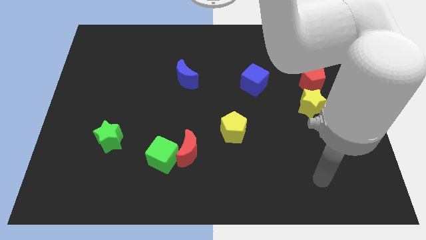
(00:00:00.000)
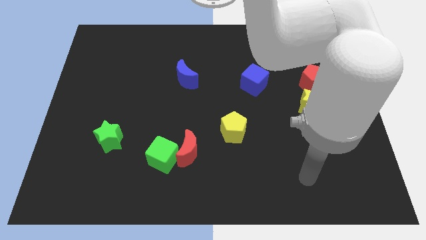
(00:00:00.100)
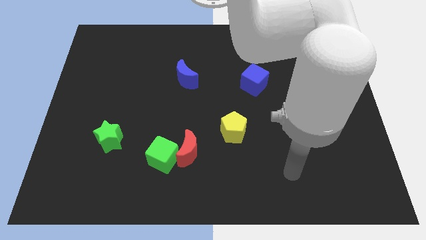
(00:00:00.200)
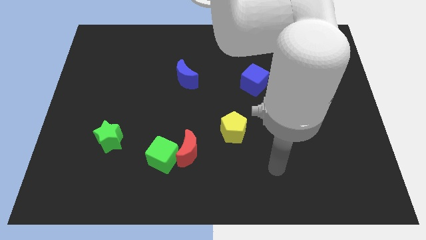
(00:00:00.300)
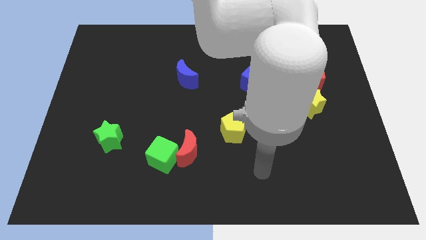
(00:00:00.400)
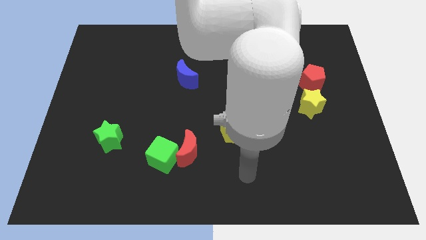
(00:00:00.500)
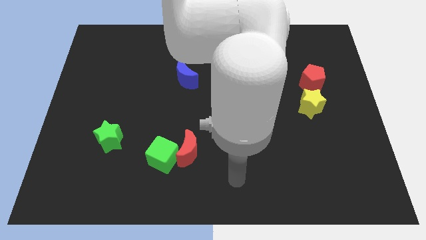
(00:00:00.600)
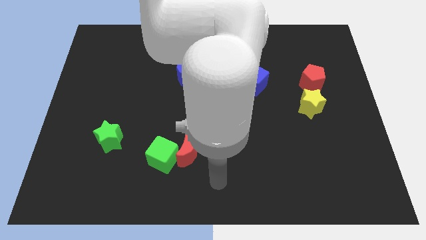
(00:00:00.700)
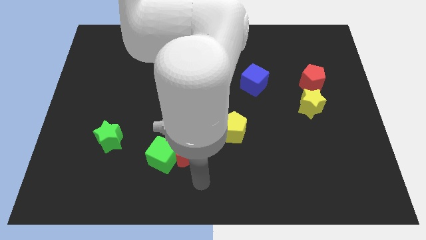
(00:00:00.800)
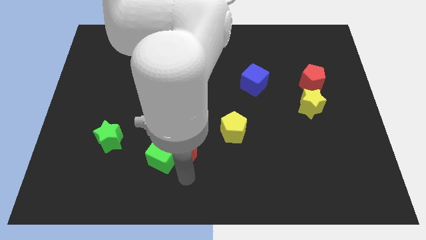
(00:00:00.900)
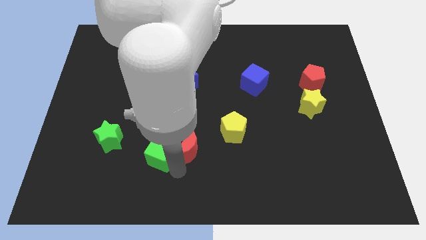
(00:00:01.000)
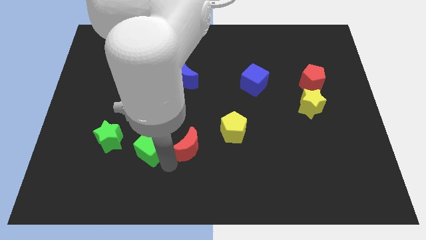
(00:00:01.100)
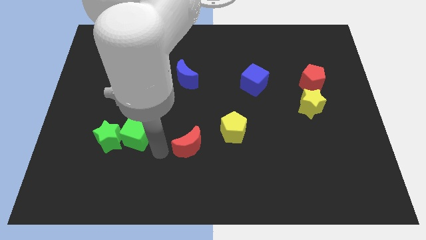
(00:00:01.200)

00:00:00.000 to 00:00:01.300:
separate the red moon from the green cube

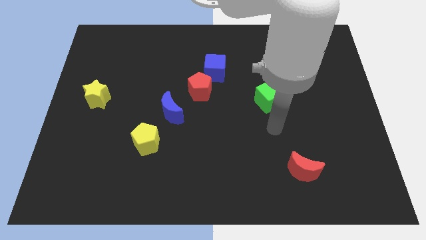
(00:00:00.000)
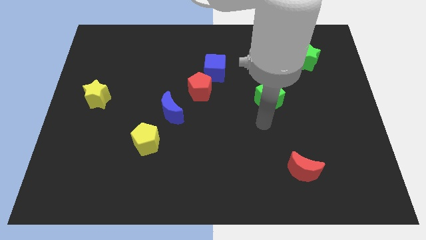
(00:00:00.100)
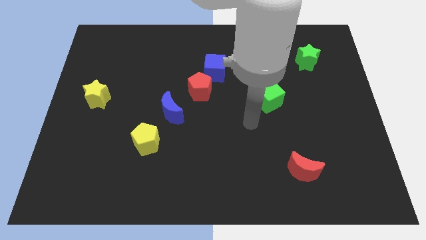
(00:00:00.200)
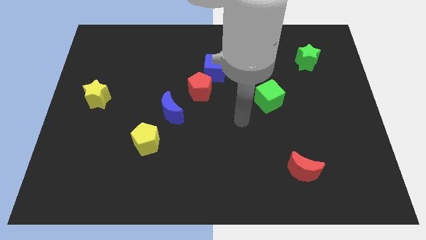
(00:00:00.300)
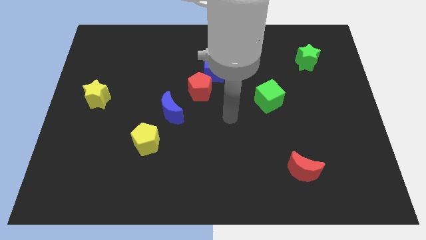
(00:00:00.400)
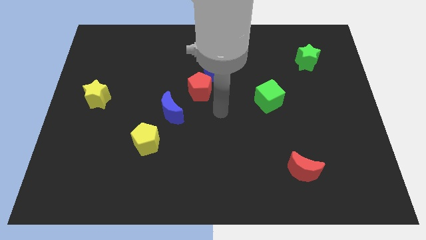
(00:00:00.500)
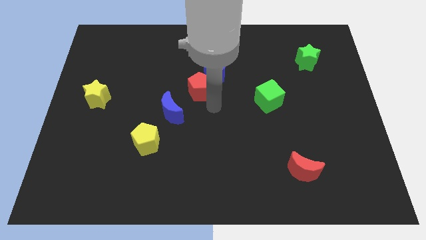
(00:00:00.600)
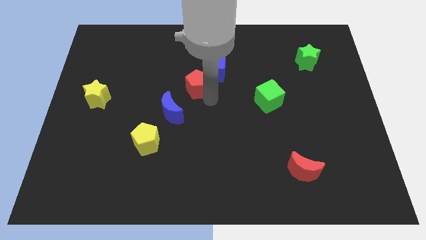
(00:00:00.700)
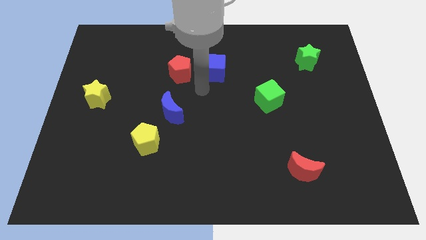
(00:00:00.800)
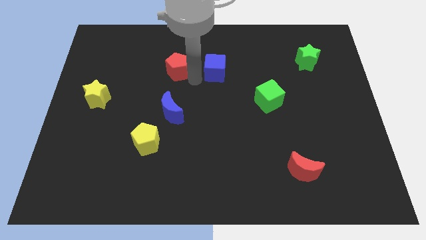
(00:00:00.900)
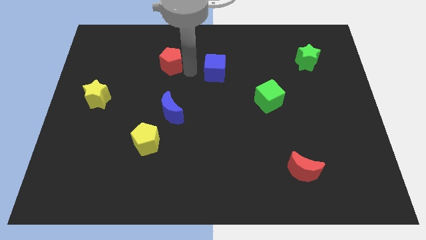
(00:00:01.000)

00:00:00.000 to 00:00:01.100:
move the blue cube away from the red pentagon

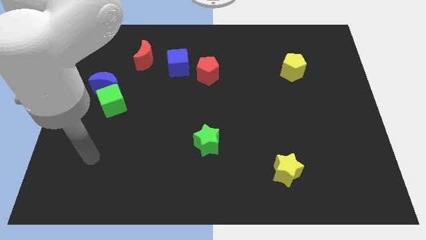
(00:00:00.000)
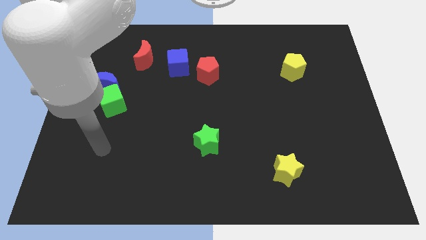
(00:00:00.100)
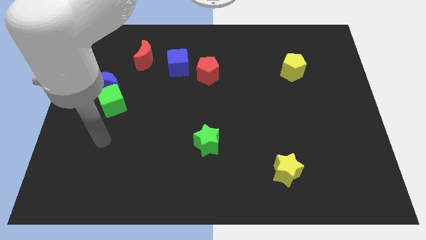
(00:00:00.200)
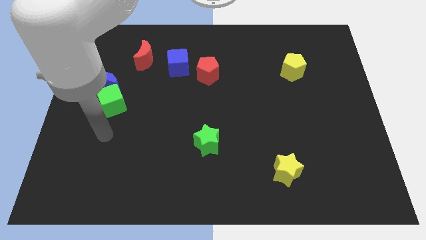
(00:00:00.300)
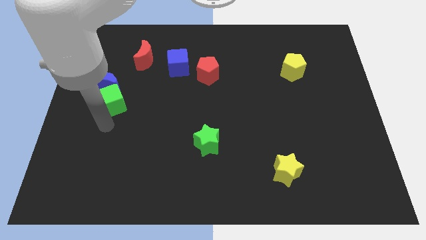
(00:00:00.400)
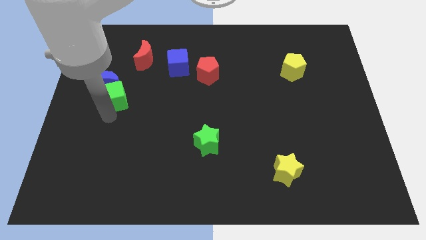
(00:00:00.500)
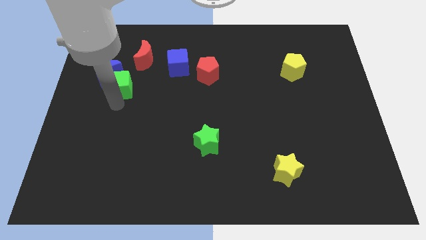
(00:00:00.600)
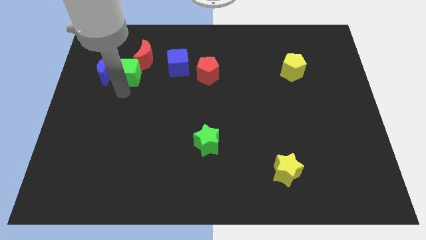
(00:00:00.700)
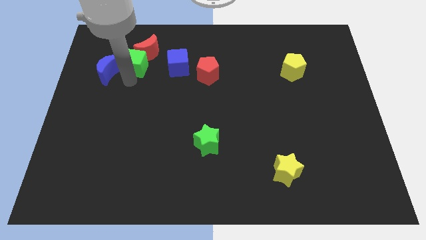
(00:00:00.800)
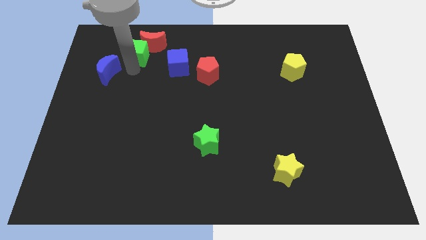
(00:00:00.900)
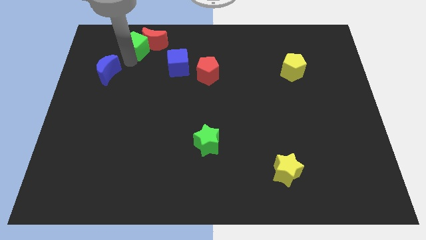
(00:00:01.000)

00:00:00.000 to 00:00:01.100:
pull the blue moon apart from the green cube

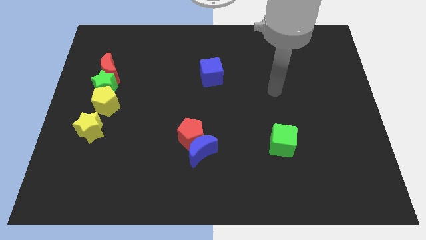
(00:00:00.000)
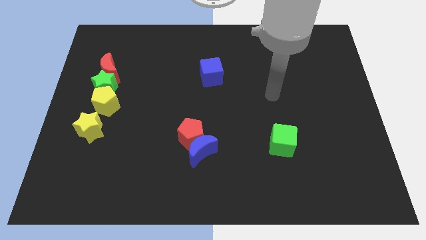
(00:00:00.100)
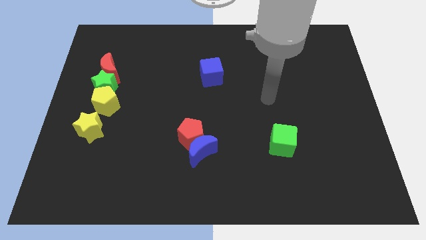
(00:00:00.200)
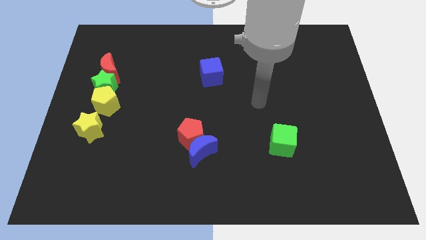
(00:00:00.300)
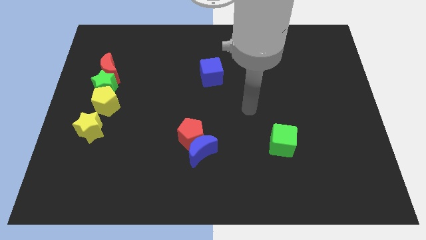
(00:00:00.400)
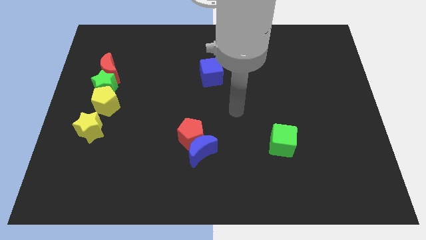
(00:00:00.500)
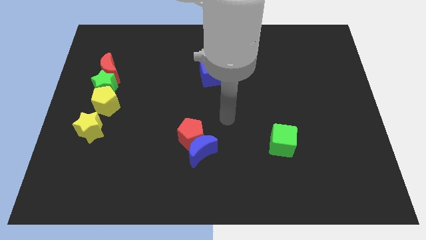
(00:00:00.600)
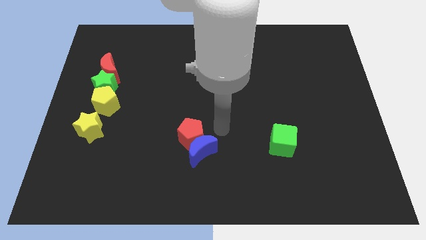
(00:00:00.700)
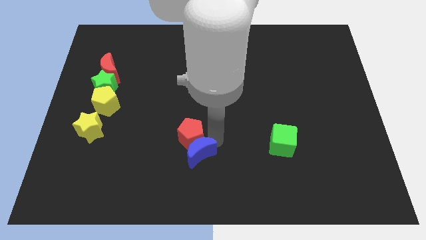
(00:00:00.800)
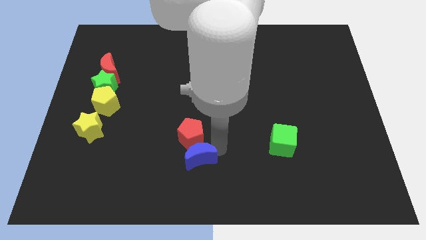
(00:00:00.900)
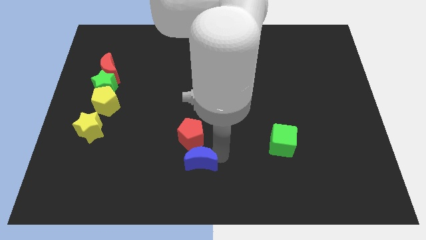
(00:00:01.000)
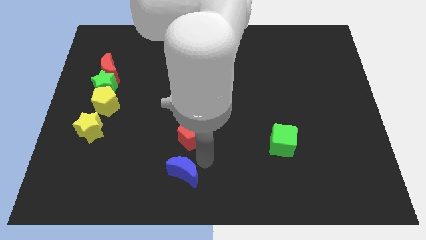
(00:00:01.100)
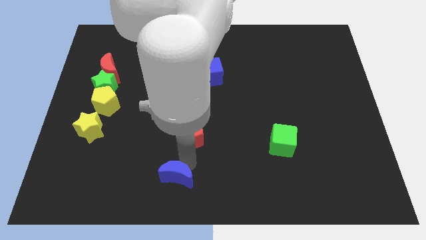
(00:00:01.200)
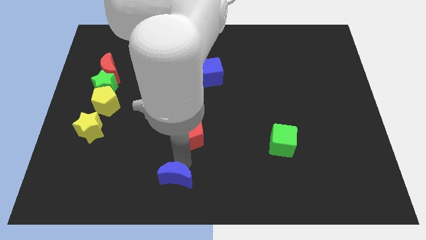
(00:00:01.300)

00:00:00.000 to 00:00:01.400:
separate the red pentagon from the blue moon

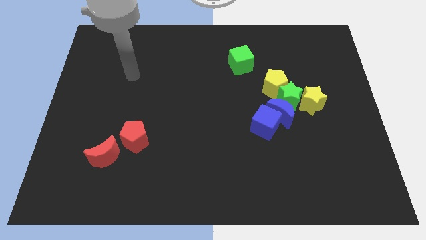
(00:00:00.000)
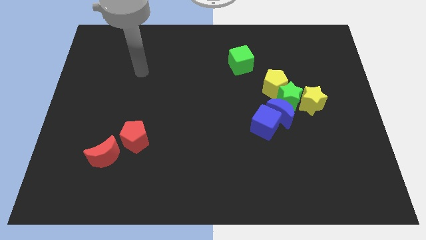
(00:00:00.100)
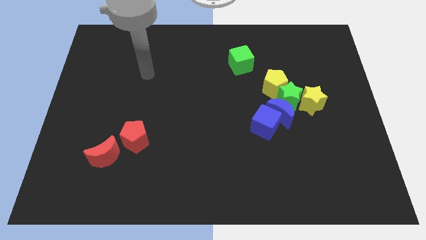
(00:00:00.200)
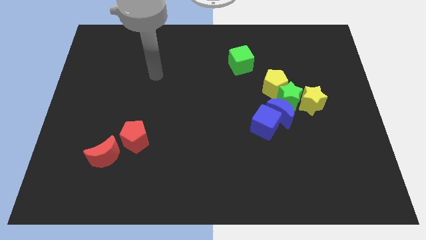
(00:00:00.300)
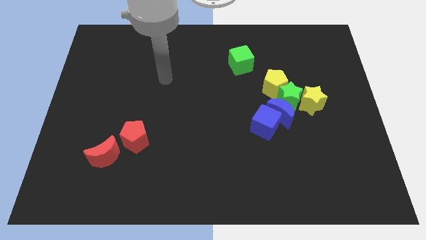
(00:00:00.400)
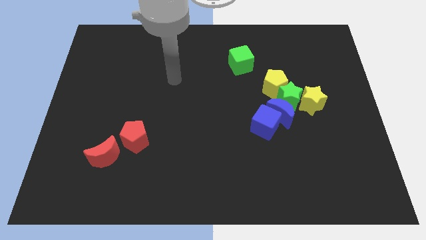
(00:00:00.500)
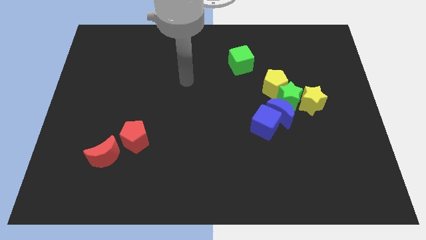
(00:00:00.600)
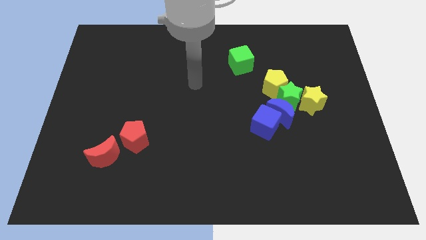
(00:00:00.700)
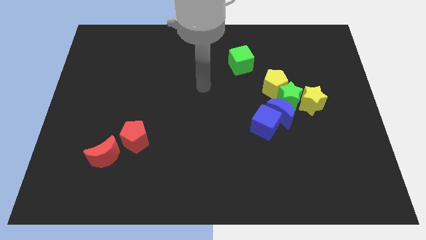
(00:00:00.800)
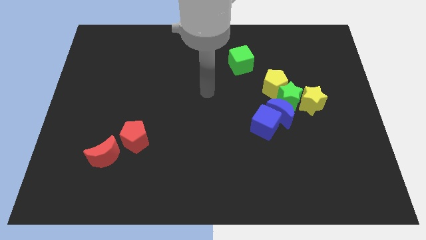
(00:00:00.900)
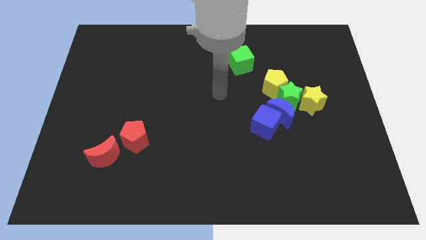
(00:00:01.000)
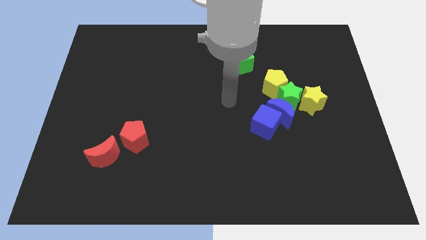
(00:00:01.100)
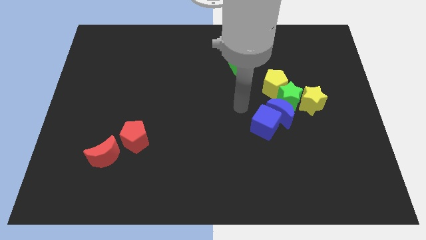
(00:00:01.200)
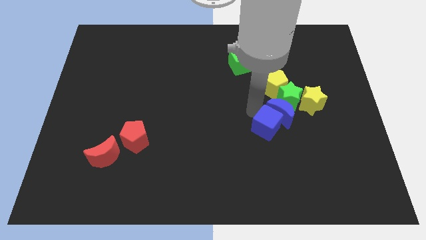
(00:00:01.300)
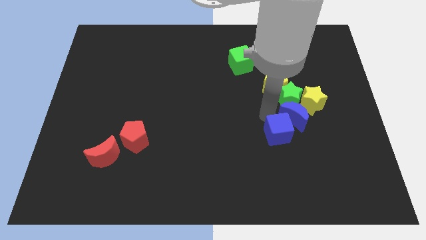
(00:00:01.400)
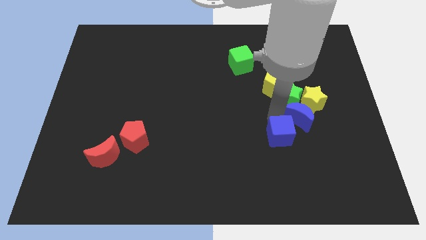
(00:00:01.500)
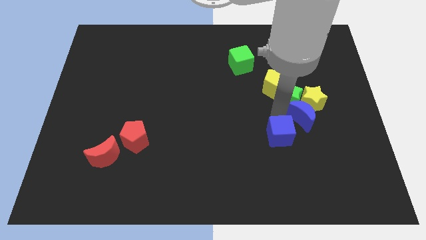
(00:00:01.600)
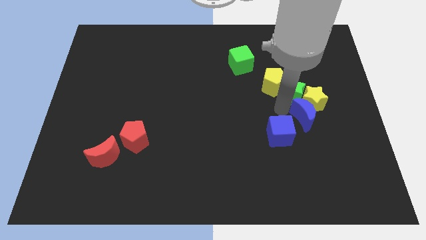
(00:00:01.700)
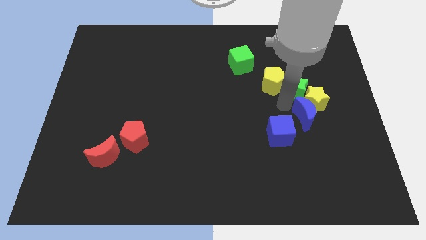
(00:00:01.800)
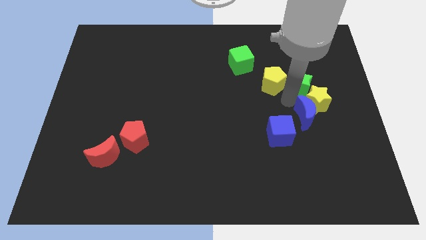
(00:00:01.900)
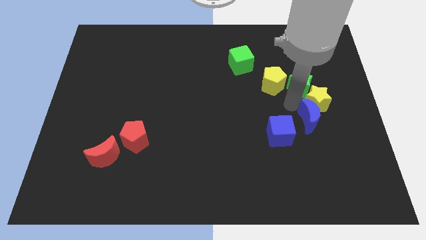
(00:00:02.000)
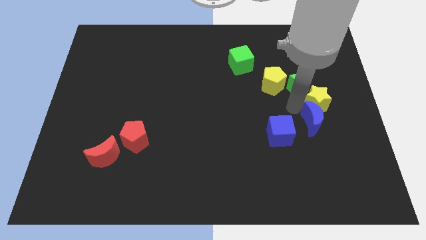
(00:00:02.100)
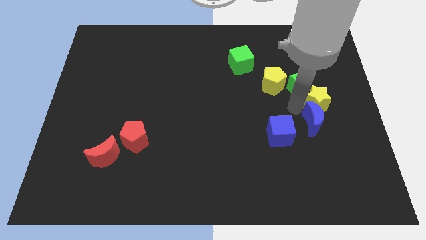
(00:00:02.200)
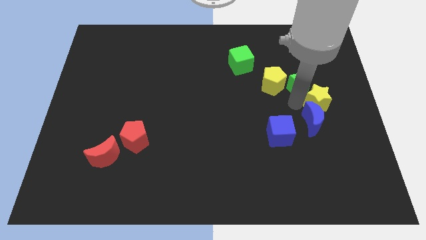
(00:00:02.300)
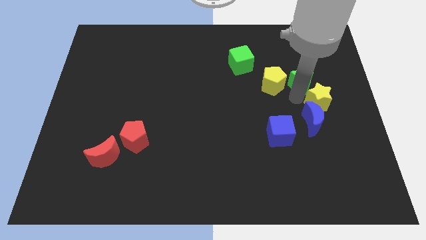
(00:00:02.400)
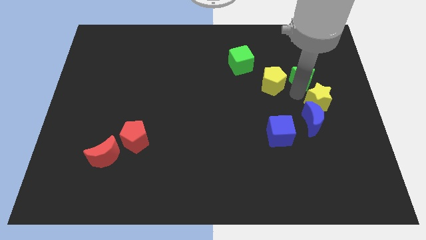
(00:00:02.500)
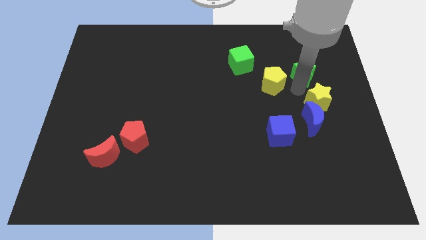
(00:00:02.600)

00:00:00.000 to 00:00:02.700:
pull the green star apart from the group

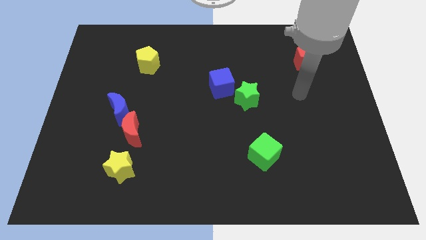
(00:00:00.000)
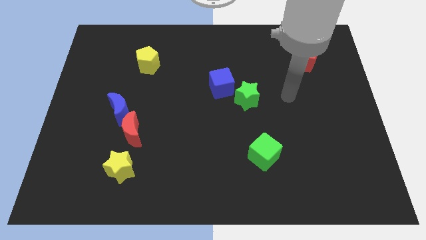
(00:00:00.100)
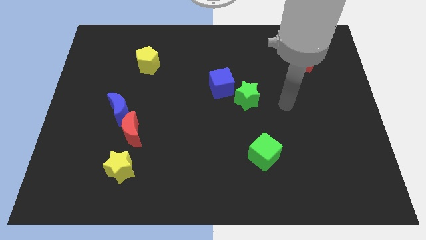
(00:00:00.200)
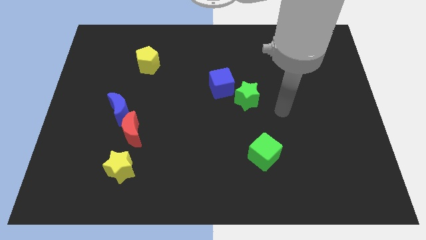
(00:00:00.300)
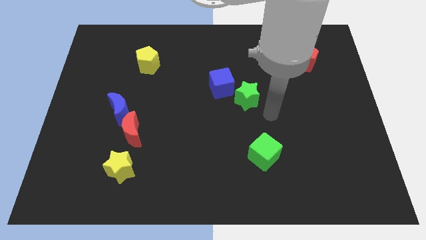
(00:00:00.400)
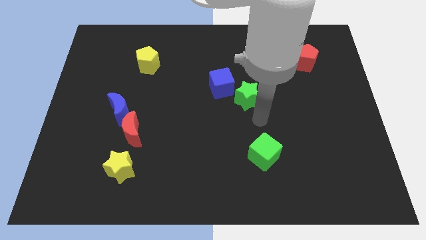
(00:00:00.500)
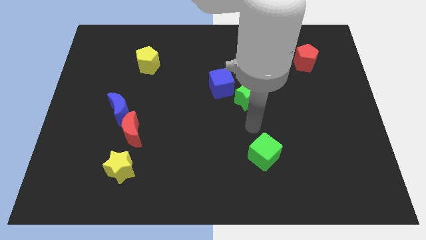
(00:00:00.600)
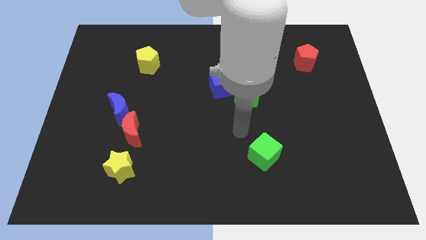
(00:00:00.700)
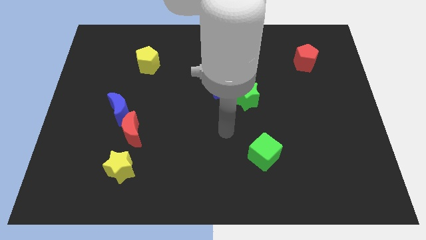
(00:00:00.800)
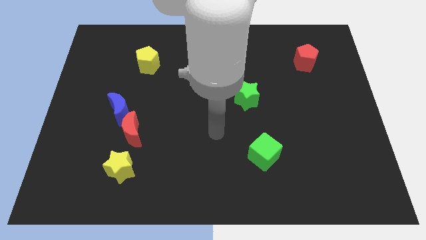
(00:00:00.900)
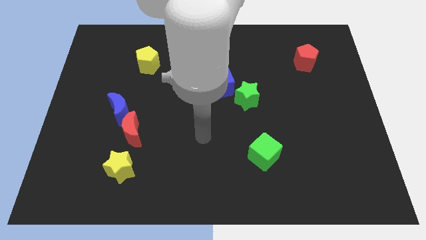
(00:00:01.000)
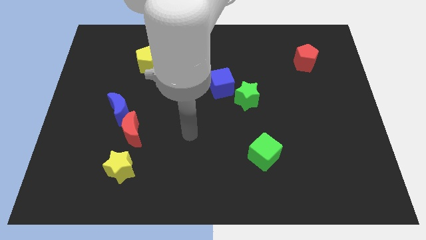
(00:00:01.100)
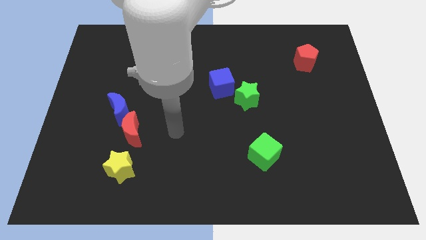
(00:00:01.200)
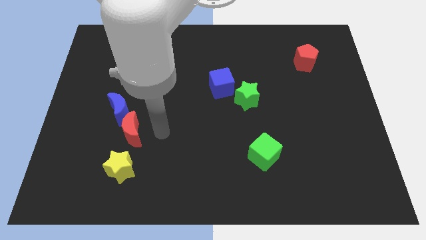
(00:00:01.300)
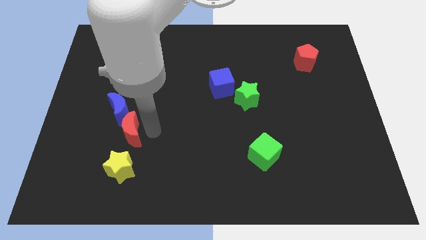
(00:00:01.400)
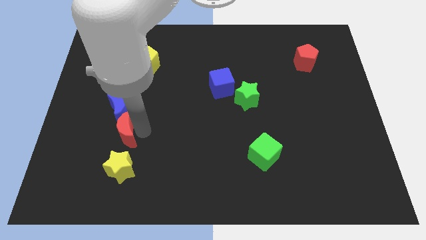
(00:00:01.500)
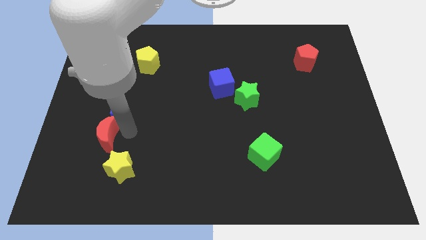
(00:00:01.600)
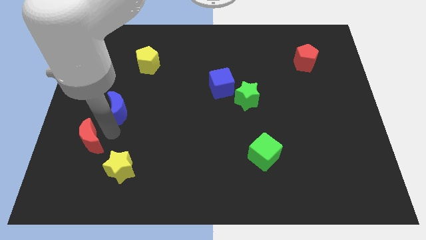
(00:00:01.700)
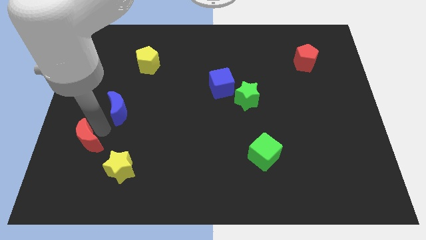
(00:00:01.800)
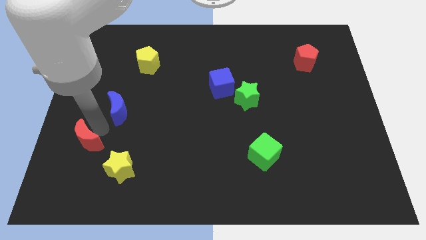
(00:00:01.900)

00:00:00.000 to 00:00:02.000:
pull the blue moon apart from the red moon
